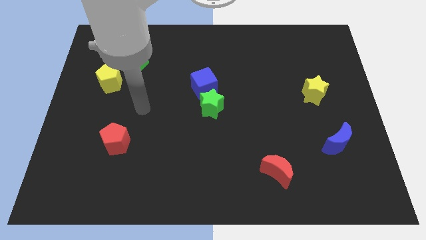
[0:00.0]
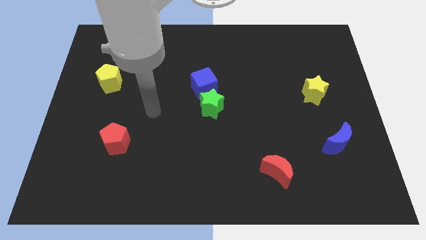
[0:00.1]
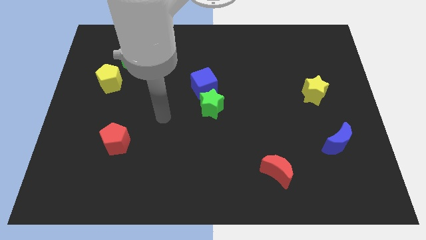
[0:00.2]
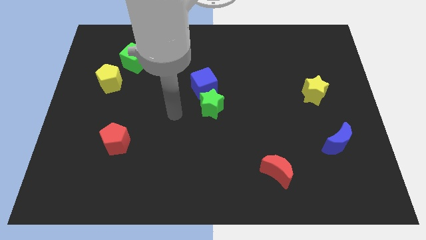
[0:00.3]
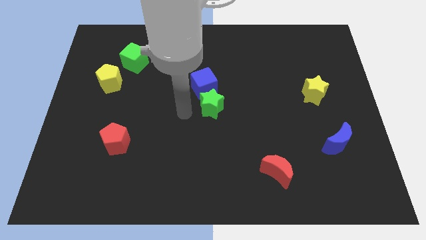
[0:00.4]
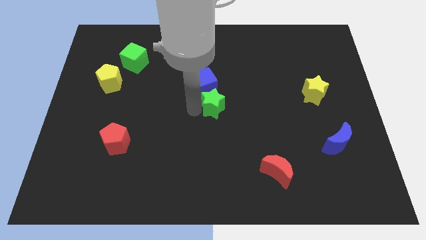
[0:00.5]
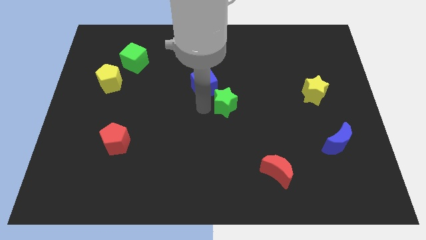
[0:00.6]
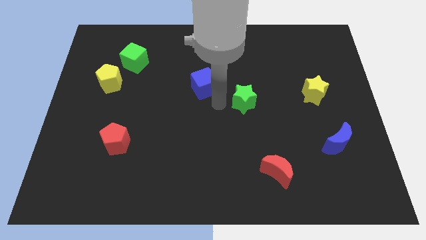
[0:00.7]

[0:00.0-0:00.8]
pull the blue cube apart from the green star

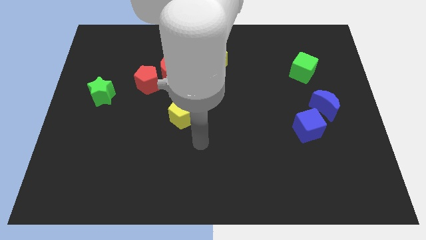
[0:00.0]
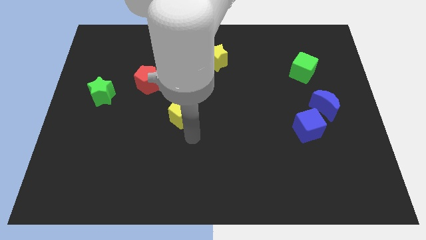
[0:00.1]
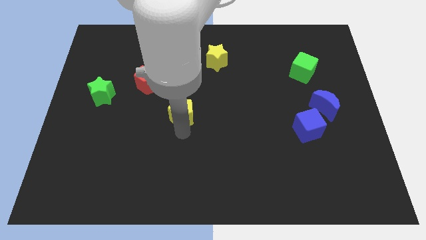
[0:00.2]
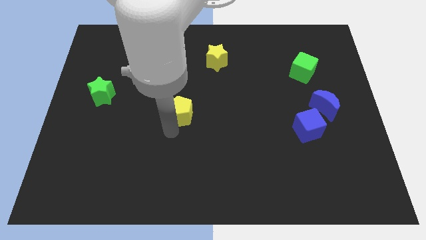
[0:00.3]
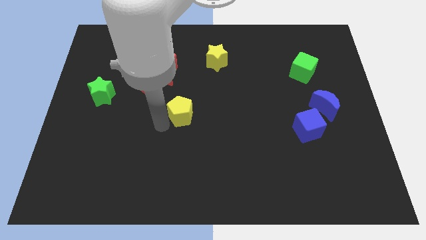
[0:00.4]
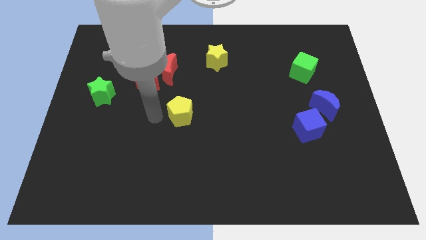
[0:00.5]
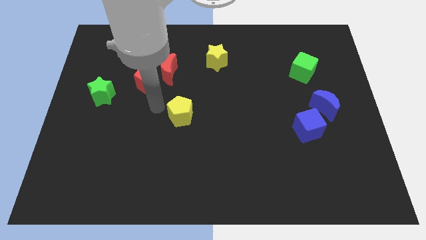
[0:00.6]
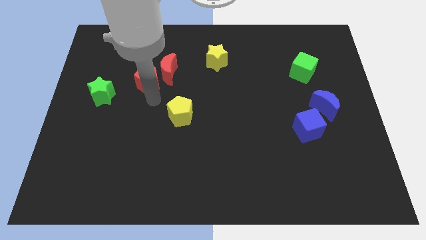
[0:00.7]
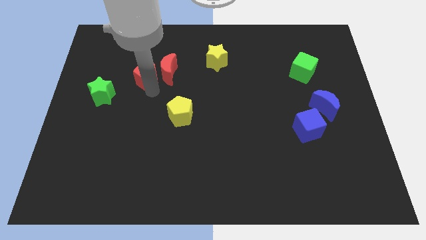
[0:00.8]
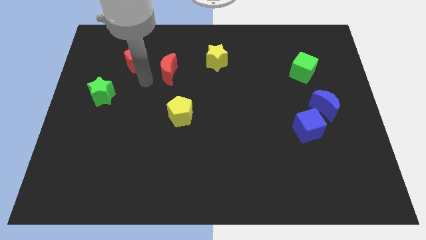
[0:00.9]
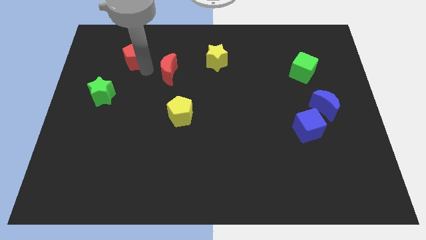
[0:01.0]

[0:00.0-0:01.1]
separate the red moon from the red pentagon

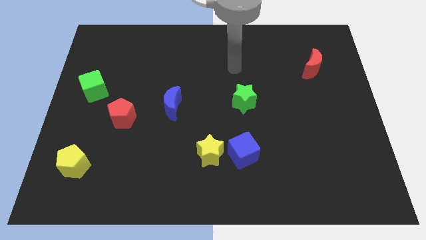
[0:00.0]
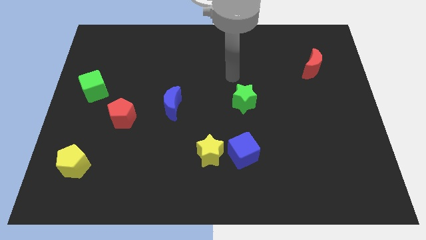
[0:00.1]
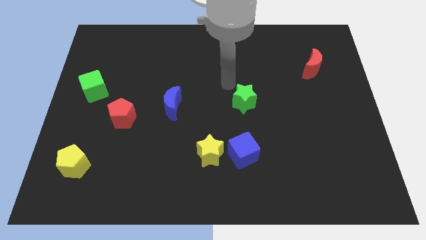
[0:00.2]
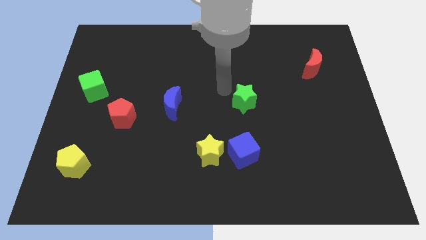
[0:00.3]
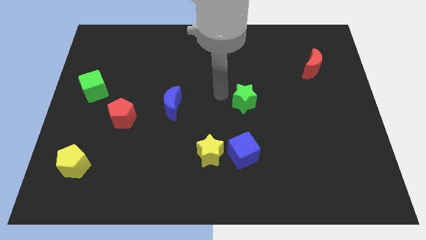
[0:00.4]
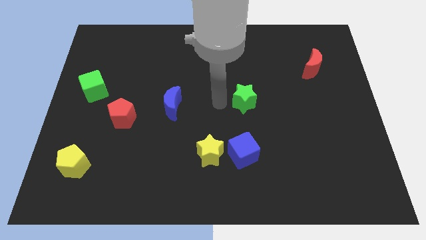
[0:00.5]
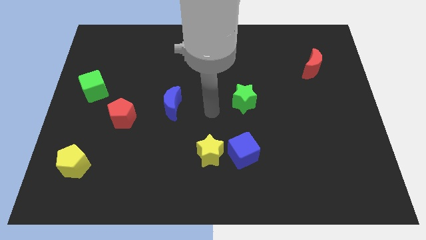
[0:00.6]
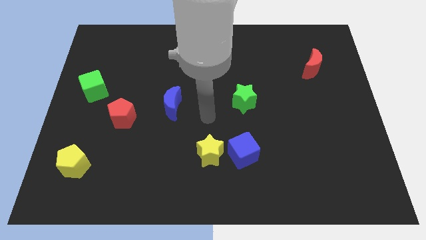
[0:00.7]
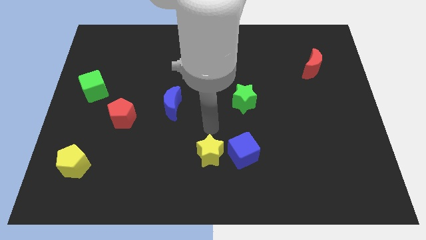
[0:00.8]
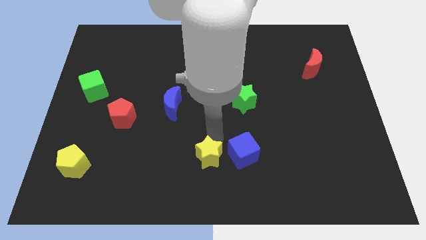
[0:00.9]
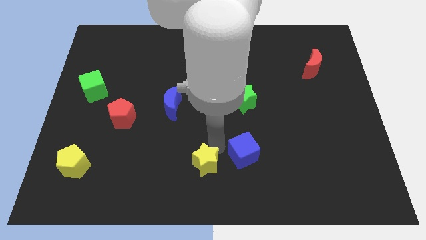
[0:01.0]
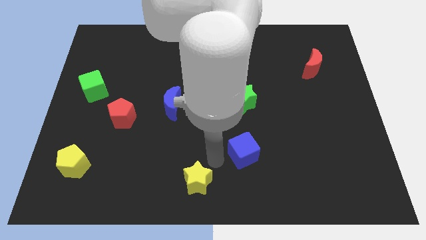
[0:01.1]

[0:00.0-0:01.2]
separate the blue cube from the yellow star

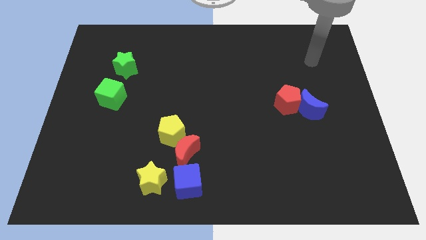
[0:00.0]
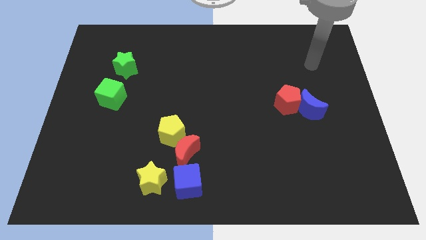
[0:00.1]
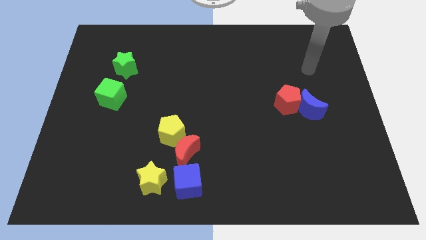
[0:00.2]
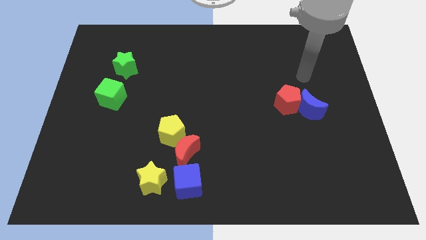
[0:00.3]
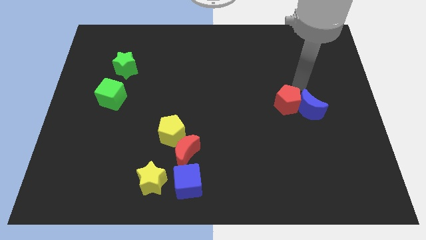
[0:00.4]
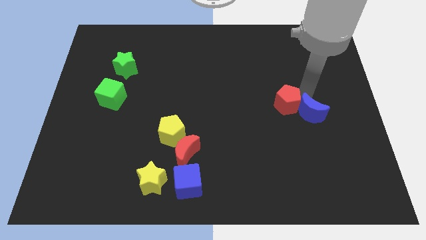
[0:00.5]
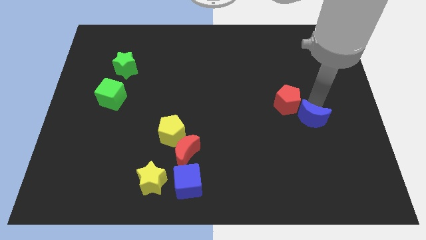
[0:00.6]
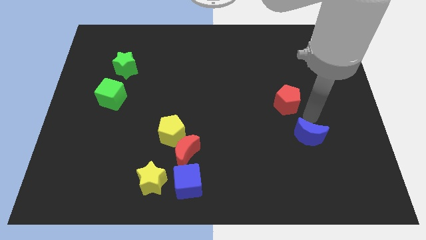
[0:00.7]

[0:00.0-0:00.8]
separate the red pentagon from the blue moon

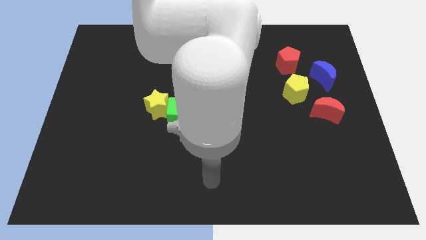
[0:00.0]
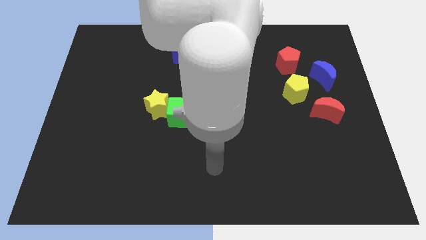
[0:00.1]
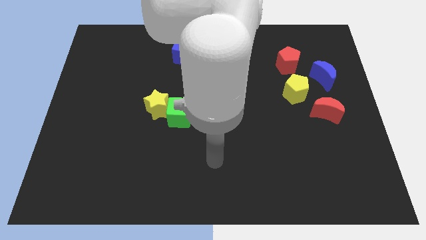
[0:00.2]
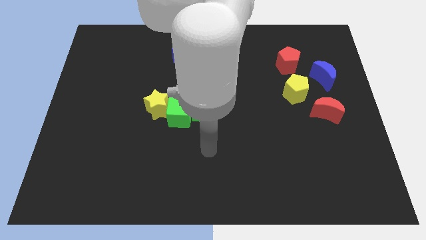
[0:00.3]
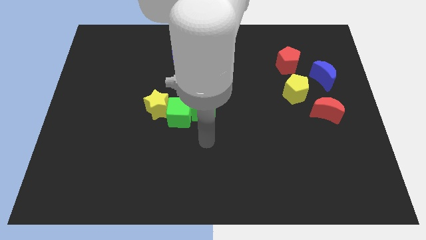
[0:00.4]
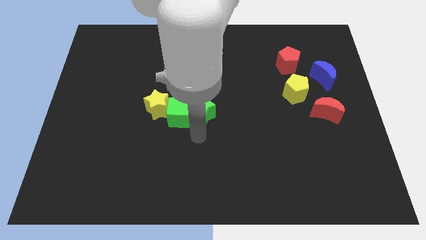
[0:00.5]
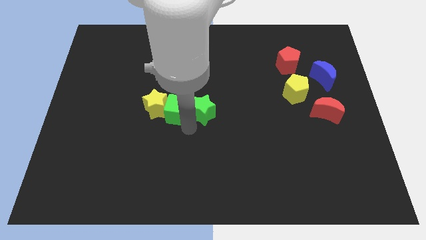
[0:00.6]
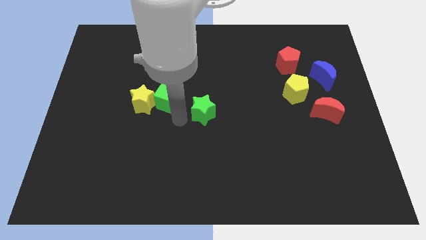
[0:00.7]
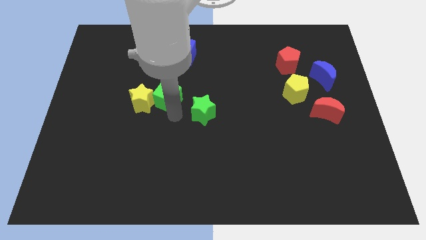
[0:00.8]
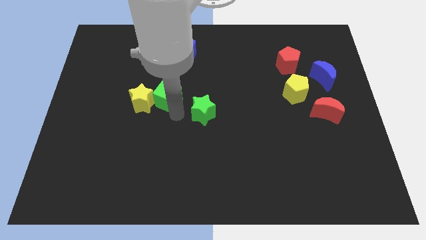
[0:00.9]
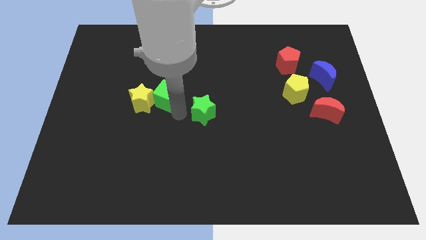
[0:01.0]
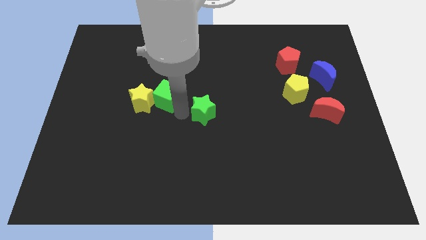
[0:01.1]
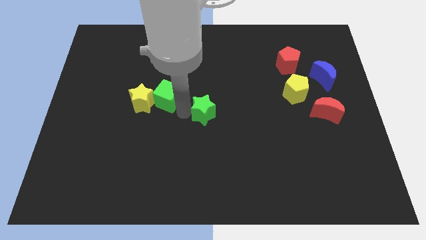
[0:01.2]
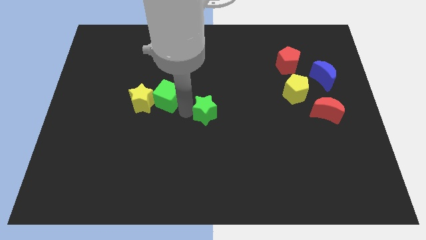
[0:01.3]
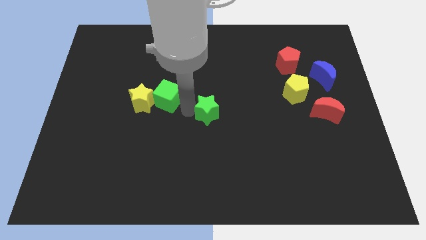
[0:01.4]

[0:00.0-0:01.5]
separate the green star from the green cube

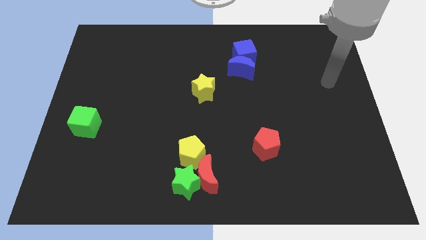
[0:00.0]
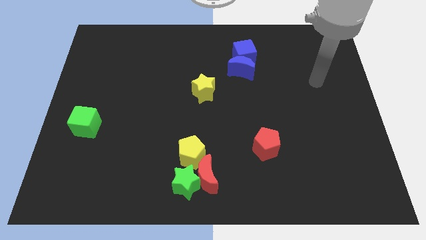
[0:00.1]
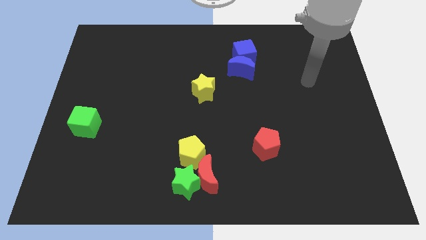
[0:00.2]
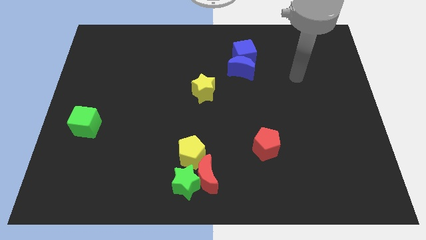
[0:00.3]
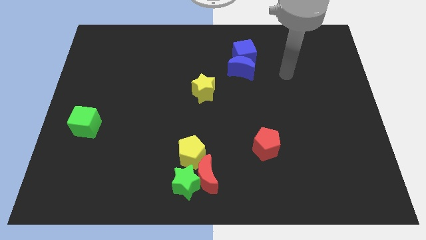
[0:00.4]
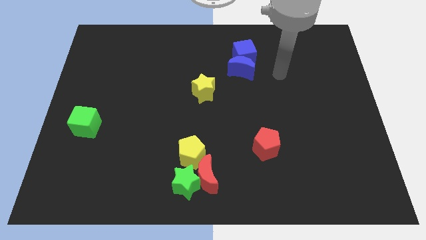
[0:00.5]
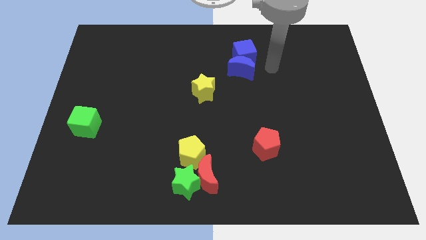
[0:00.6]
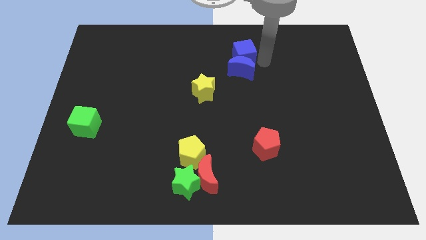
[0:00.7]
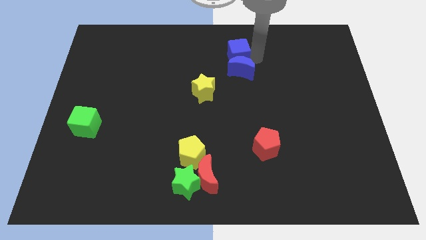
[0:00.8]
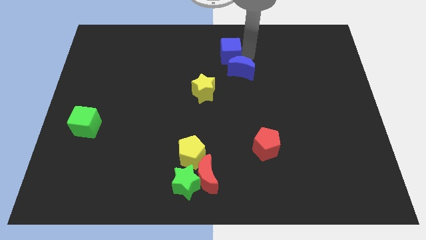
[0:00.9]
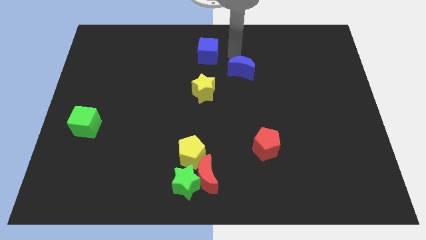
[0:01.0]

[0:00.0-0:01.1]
move the blue moon away from the blue cube

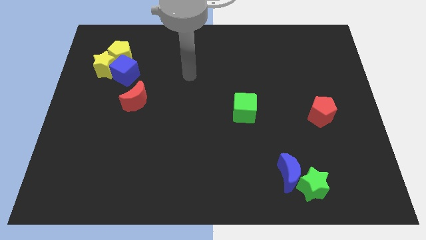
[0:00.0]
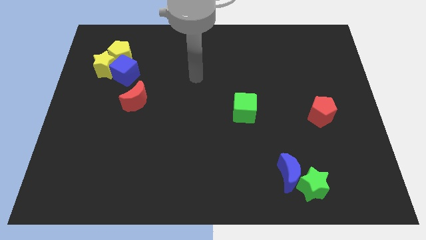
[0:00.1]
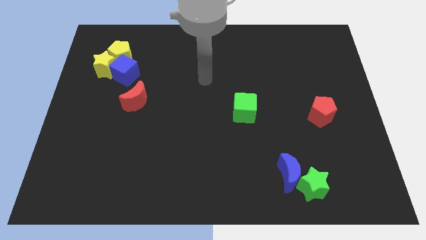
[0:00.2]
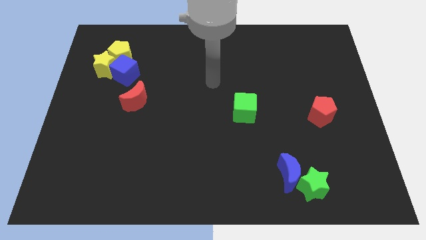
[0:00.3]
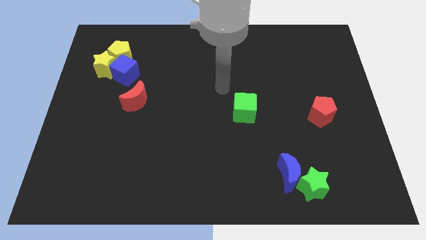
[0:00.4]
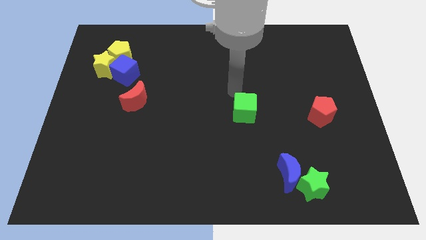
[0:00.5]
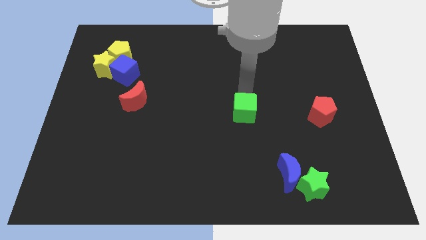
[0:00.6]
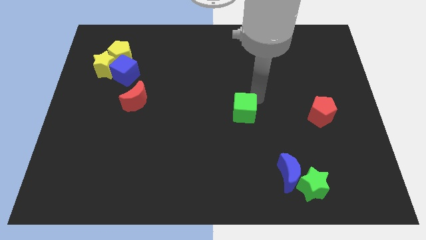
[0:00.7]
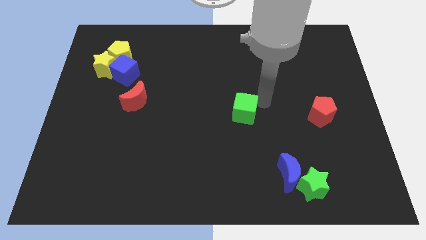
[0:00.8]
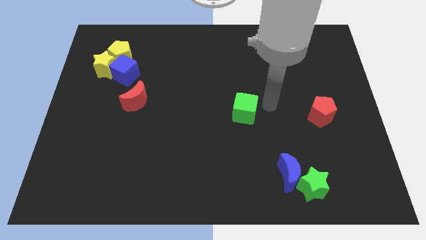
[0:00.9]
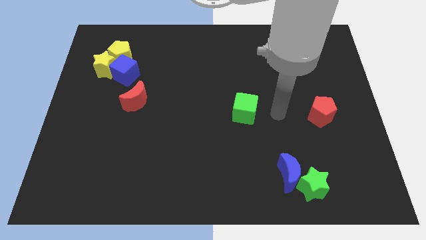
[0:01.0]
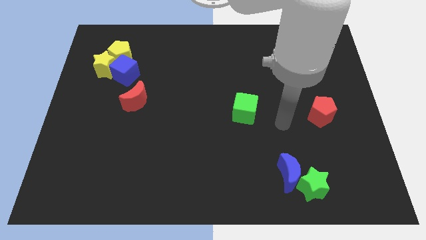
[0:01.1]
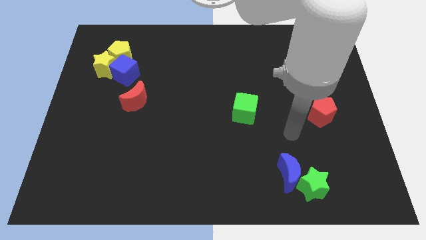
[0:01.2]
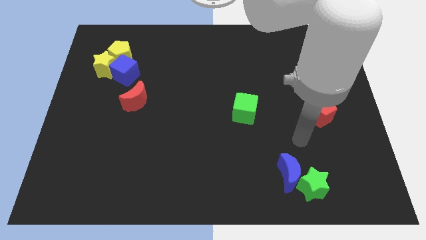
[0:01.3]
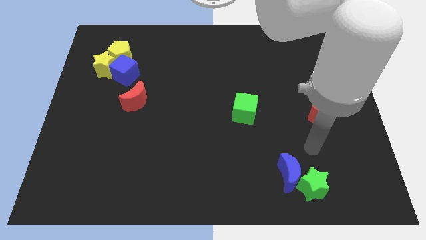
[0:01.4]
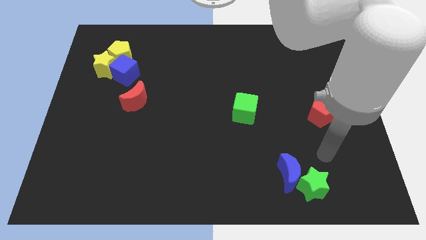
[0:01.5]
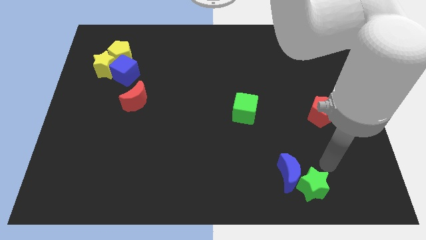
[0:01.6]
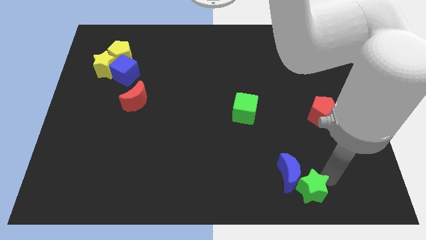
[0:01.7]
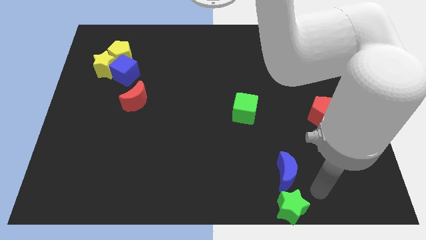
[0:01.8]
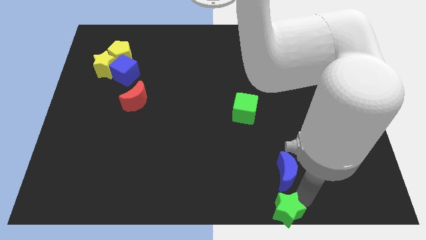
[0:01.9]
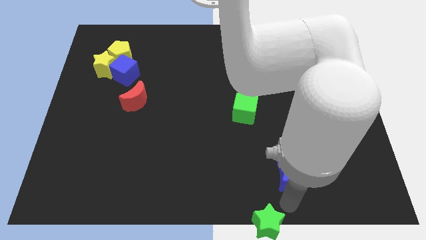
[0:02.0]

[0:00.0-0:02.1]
pull the blue moon apart from the green star

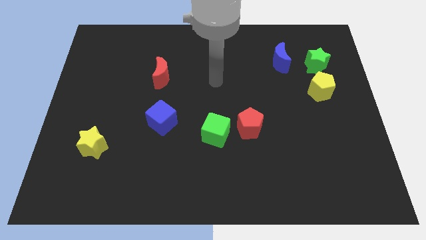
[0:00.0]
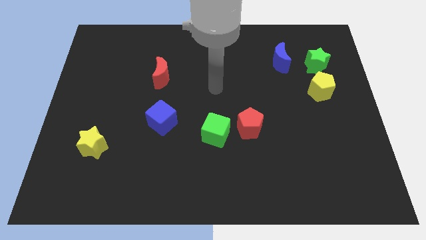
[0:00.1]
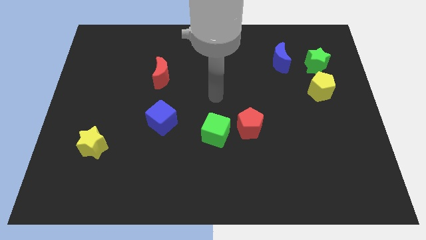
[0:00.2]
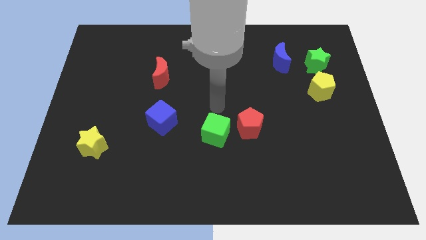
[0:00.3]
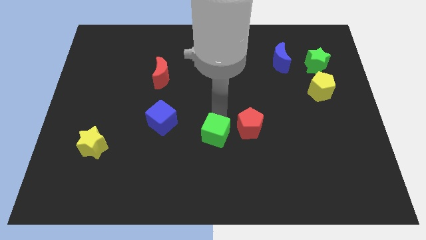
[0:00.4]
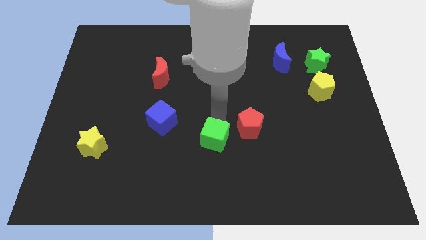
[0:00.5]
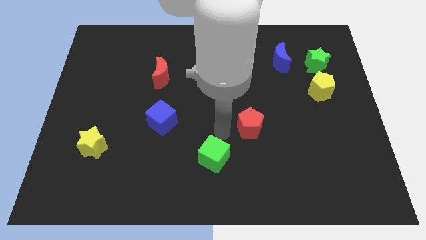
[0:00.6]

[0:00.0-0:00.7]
pull the red pentagon apart from the green cube
